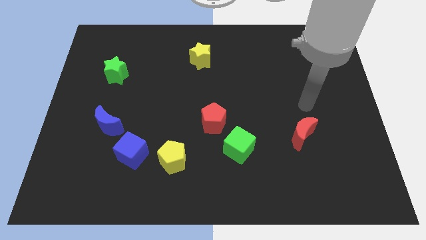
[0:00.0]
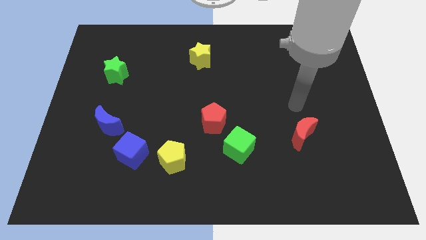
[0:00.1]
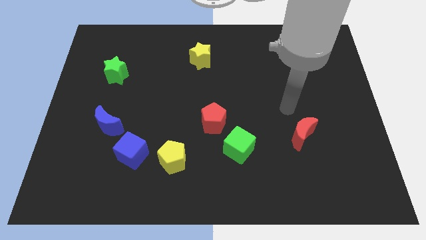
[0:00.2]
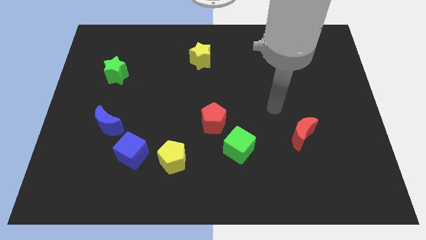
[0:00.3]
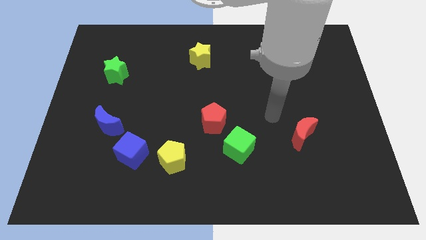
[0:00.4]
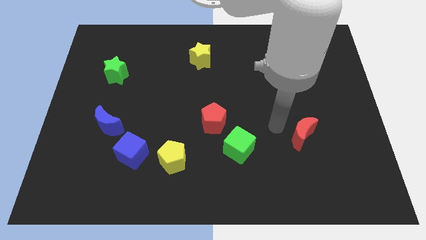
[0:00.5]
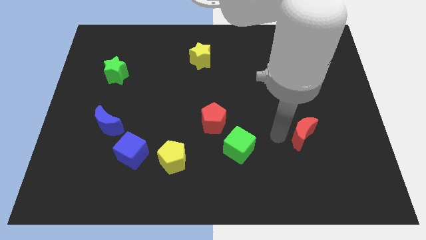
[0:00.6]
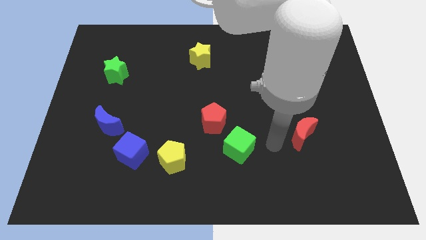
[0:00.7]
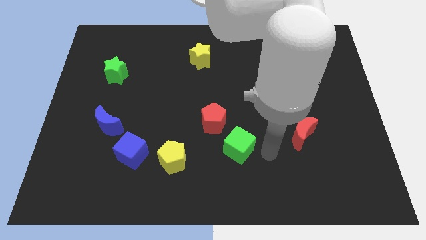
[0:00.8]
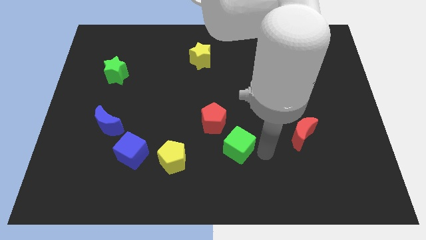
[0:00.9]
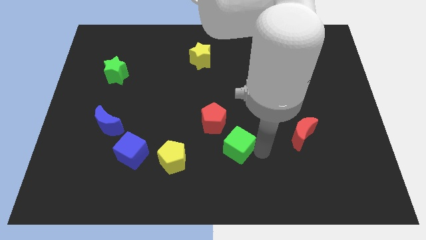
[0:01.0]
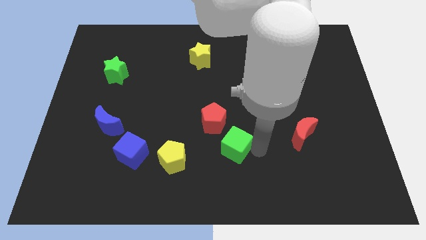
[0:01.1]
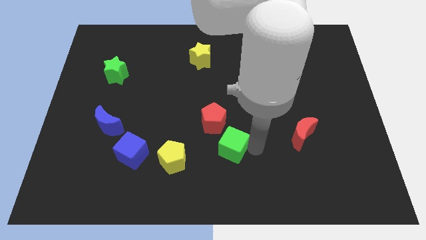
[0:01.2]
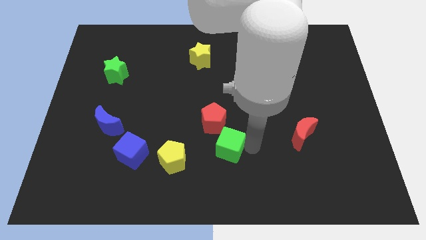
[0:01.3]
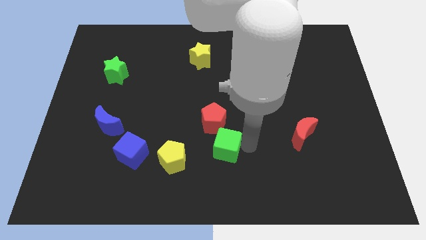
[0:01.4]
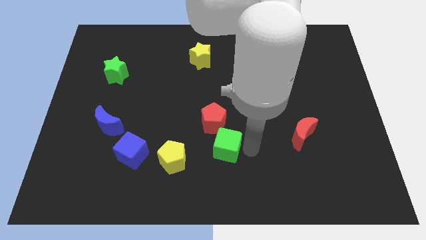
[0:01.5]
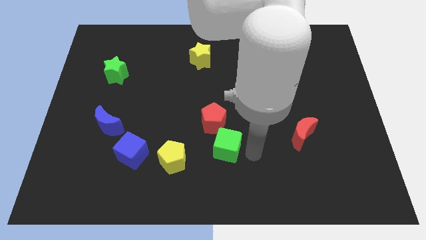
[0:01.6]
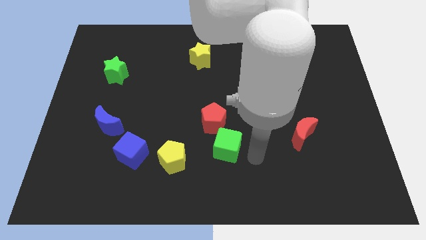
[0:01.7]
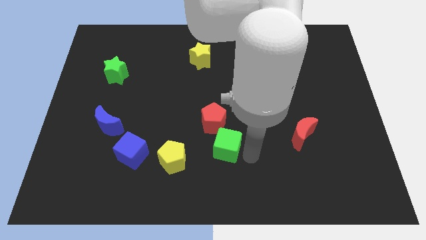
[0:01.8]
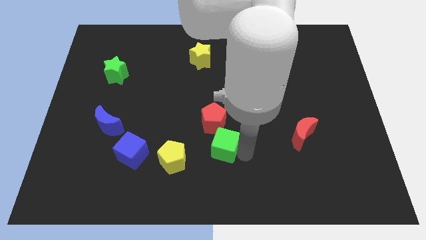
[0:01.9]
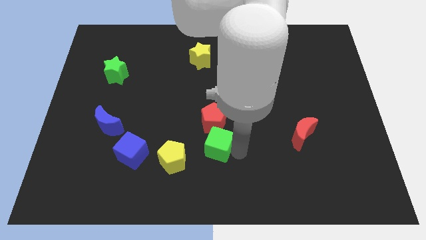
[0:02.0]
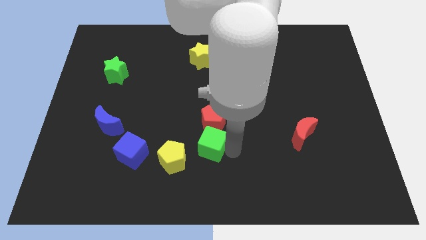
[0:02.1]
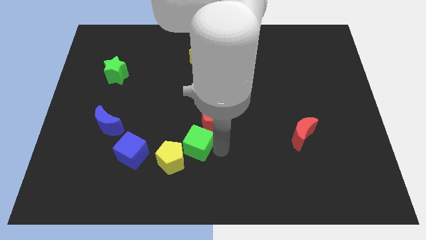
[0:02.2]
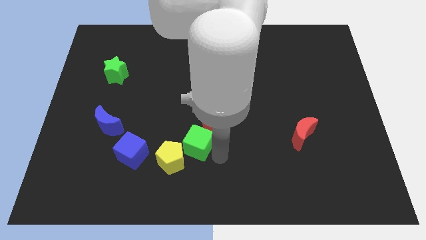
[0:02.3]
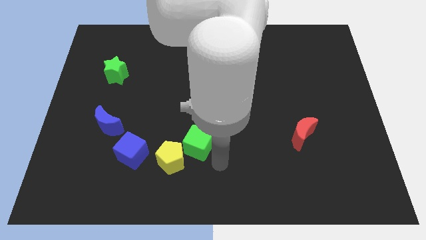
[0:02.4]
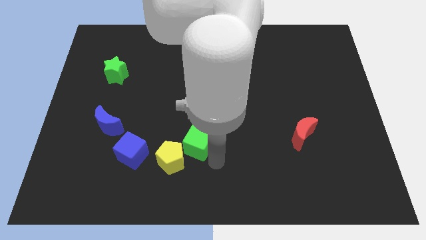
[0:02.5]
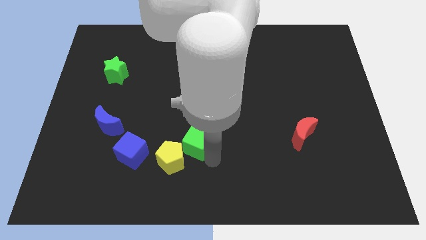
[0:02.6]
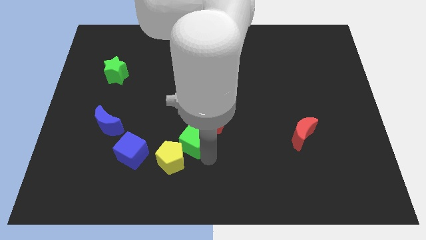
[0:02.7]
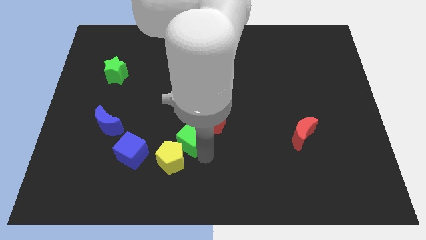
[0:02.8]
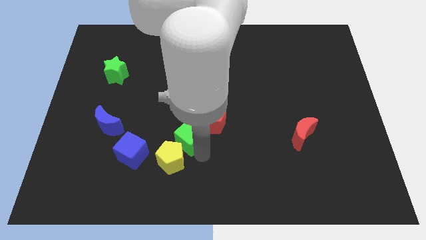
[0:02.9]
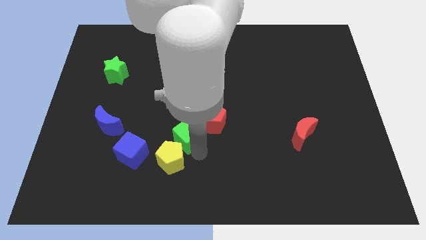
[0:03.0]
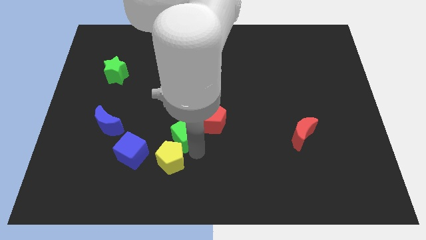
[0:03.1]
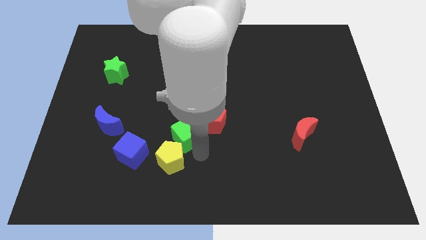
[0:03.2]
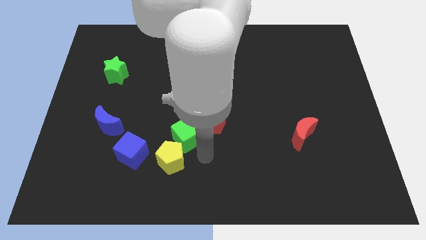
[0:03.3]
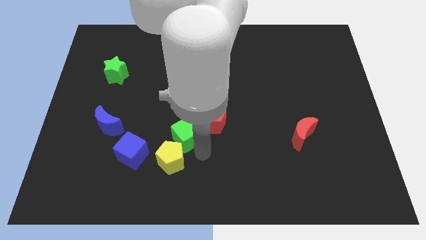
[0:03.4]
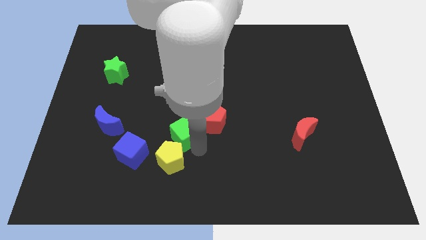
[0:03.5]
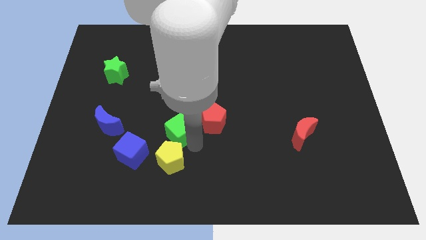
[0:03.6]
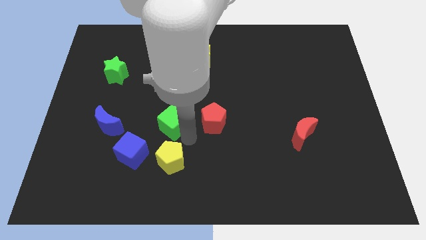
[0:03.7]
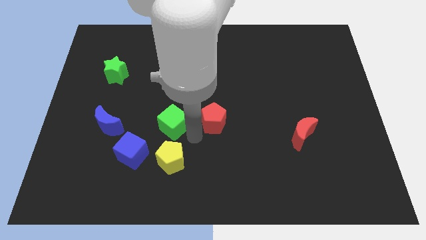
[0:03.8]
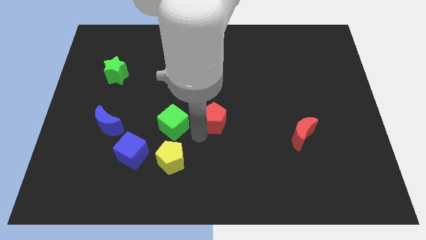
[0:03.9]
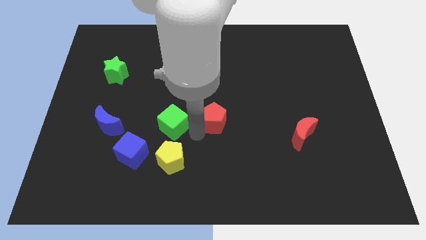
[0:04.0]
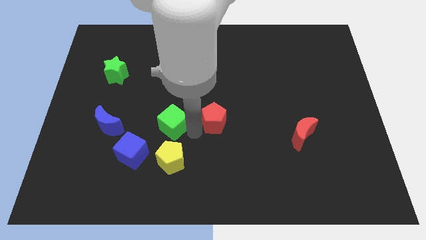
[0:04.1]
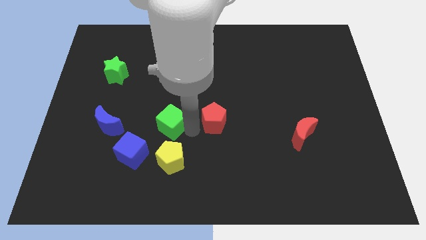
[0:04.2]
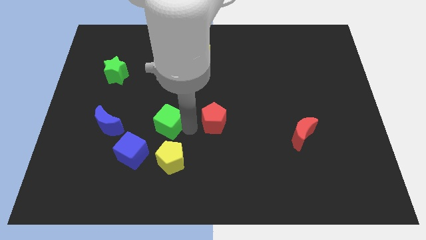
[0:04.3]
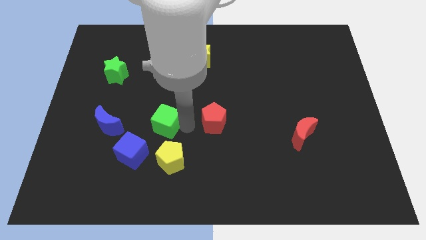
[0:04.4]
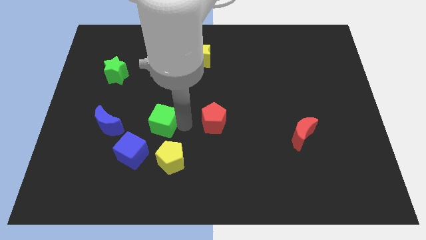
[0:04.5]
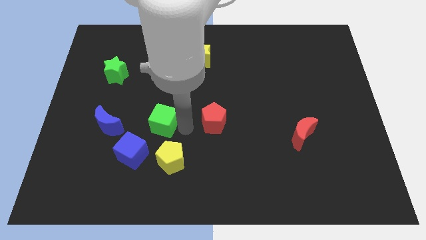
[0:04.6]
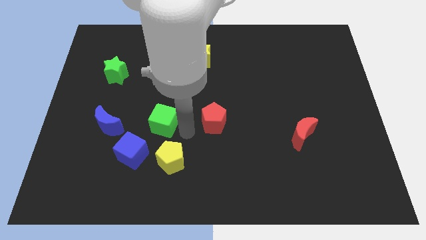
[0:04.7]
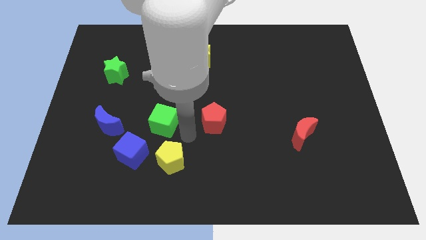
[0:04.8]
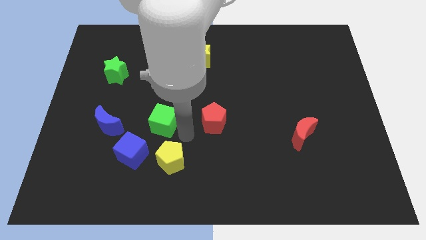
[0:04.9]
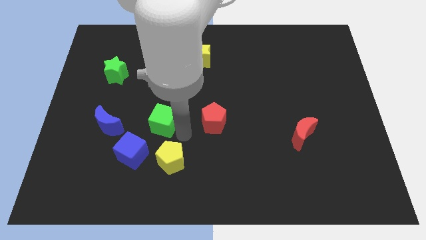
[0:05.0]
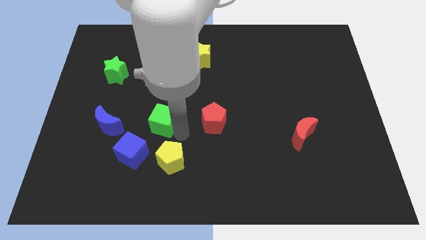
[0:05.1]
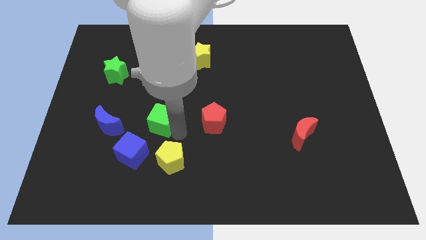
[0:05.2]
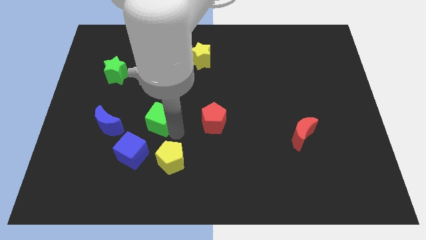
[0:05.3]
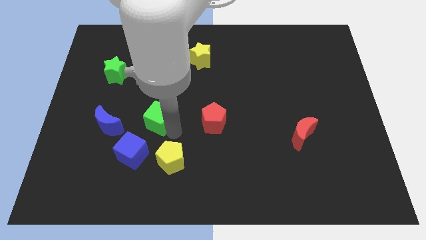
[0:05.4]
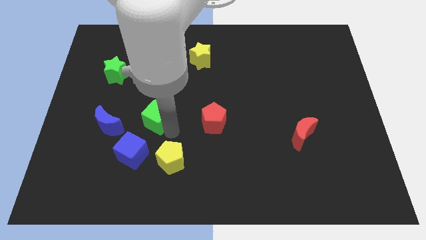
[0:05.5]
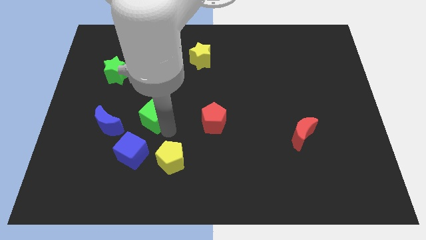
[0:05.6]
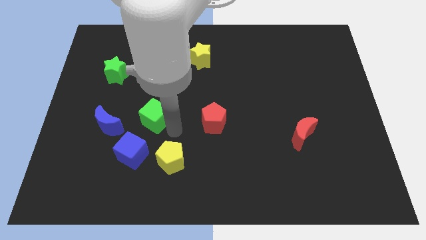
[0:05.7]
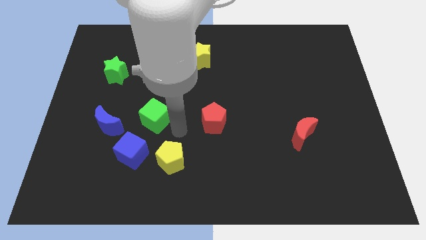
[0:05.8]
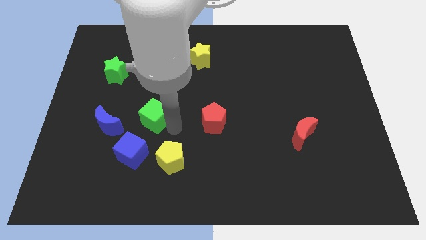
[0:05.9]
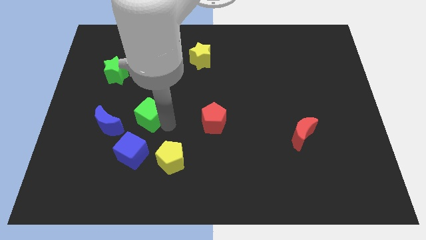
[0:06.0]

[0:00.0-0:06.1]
move the green cube diagonally up and to the right of the blue moon

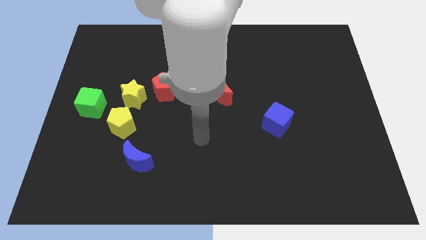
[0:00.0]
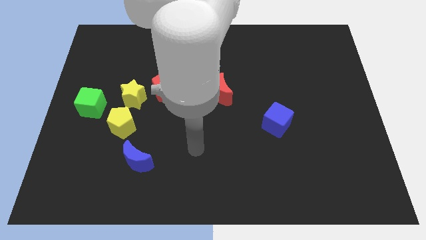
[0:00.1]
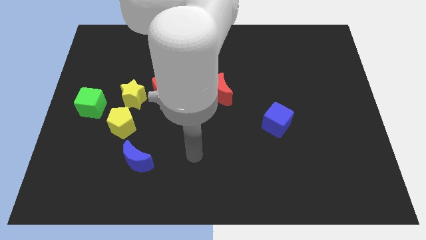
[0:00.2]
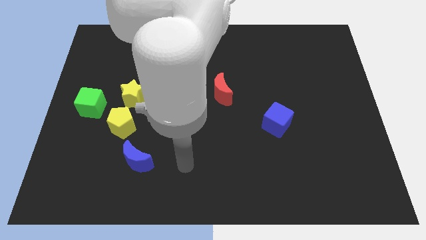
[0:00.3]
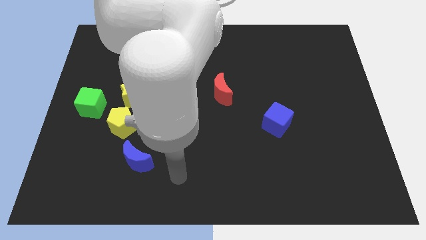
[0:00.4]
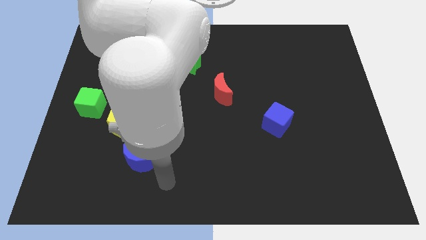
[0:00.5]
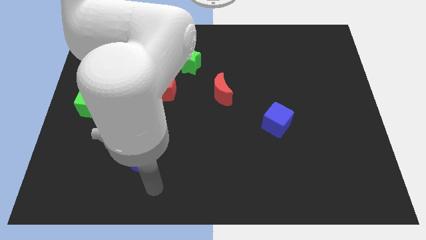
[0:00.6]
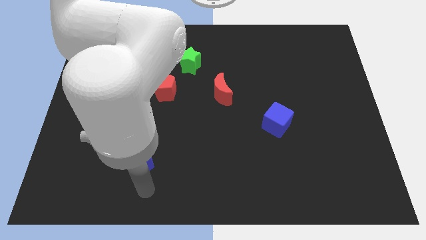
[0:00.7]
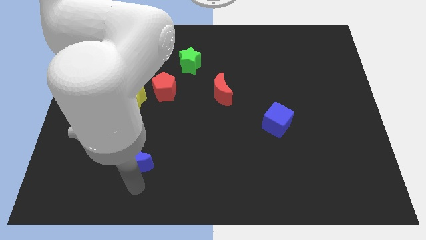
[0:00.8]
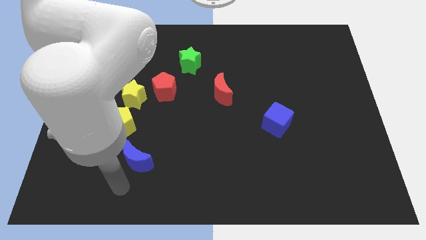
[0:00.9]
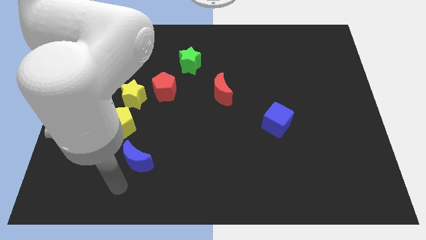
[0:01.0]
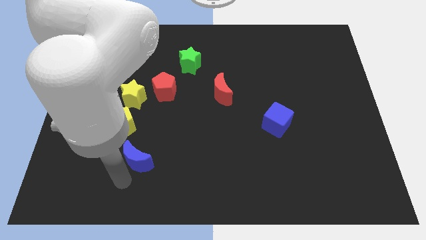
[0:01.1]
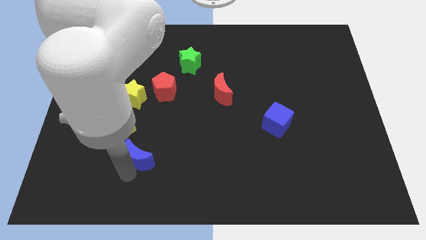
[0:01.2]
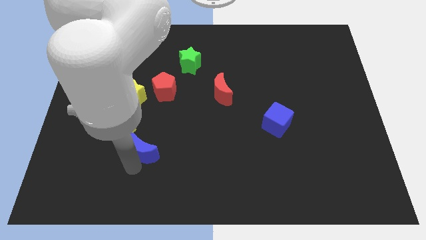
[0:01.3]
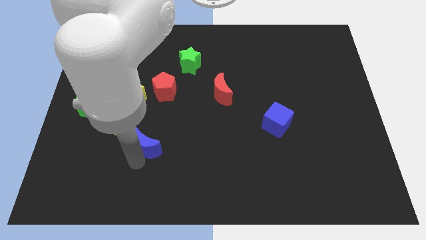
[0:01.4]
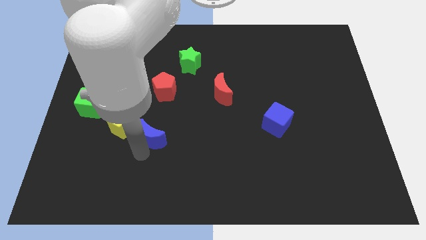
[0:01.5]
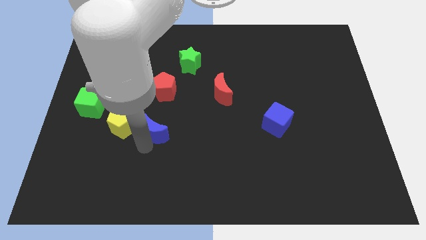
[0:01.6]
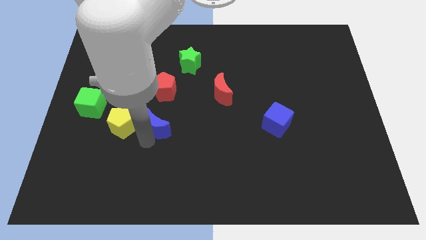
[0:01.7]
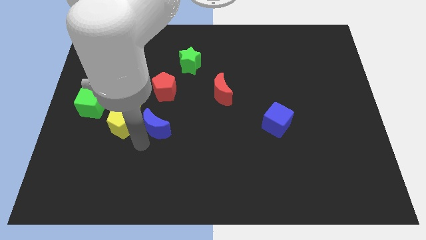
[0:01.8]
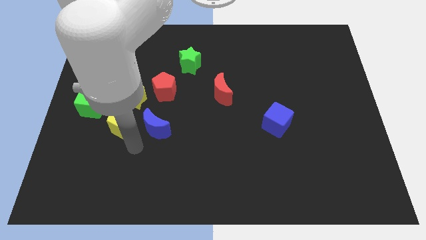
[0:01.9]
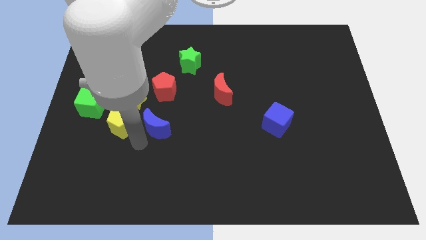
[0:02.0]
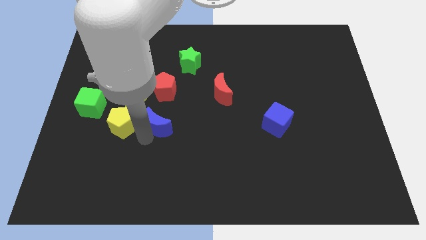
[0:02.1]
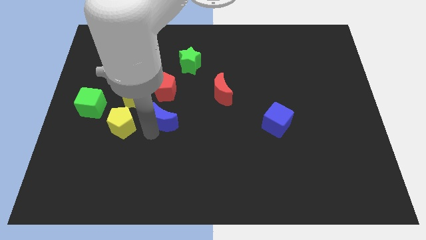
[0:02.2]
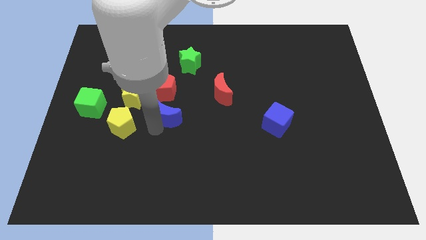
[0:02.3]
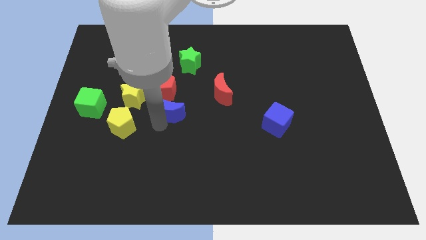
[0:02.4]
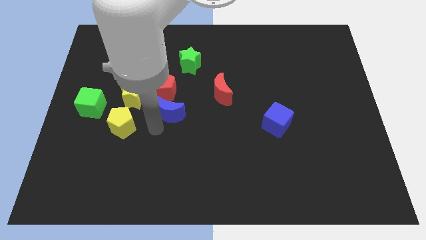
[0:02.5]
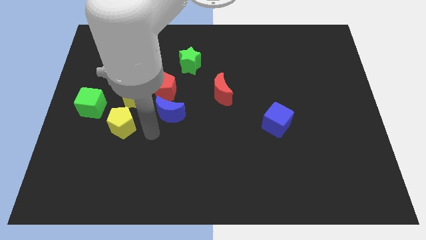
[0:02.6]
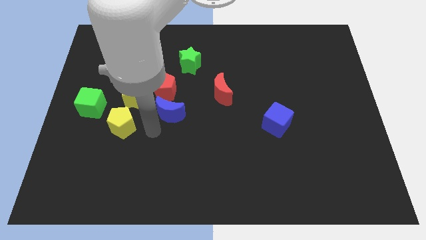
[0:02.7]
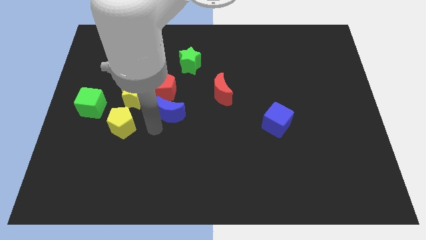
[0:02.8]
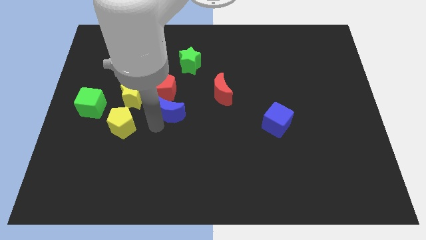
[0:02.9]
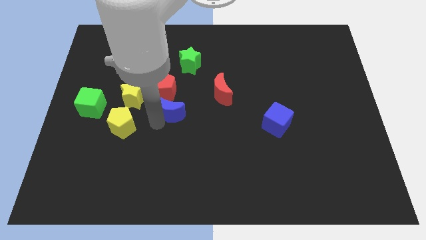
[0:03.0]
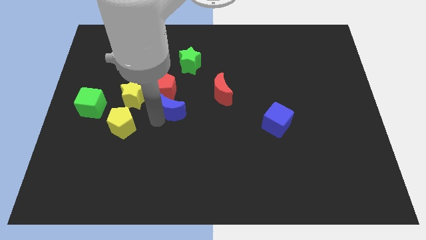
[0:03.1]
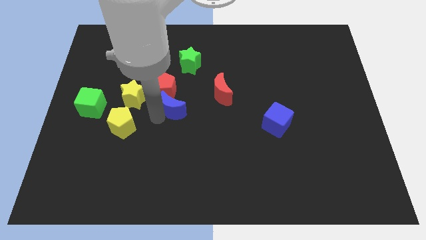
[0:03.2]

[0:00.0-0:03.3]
slide the blue moon below the green star
